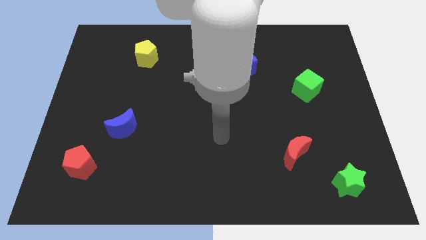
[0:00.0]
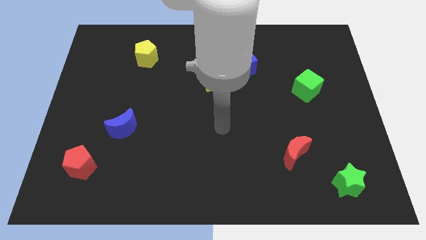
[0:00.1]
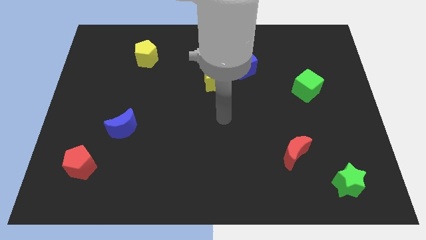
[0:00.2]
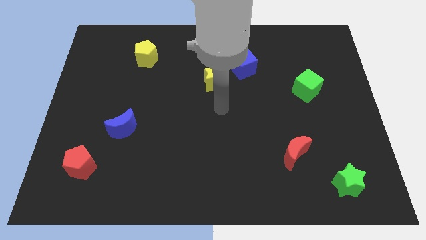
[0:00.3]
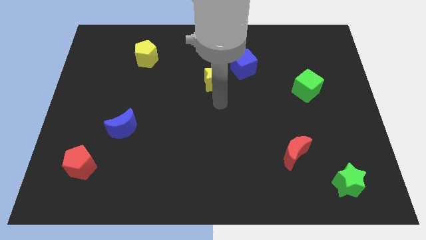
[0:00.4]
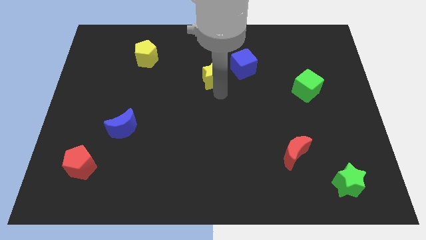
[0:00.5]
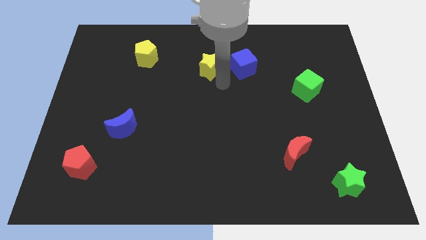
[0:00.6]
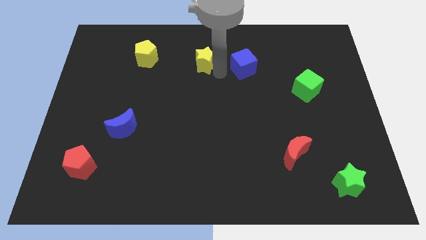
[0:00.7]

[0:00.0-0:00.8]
move the blue cube away from the yellow star

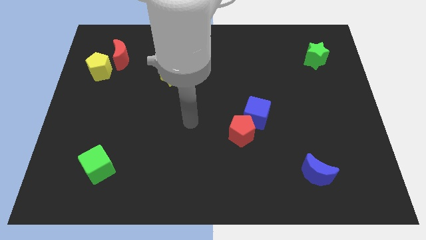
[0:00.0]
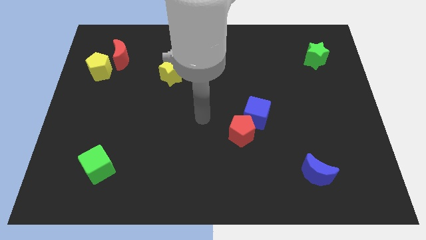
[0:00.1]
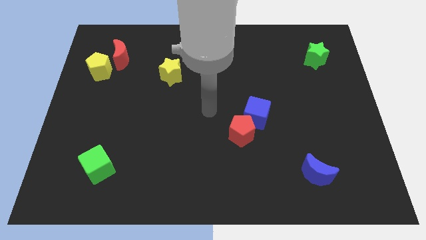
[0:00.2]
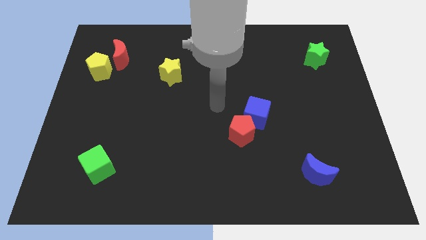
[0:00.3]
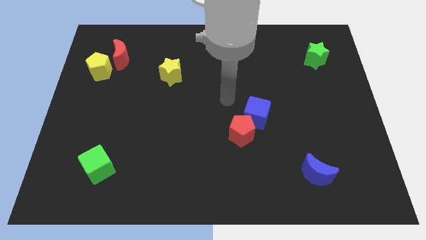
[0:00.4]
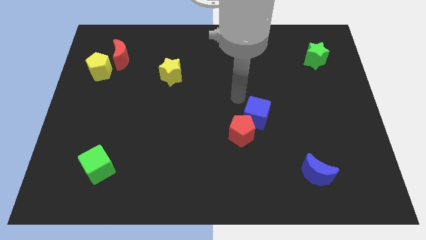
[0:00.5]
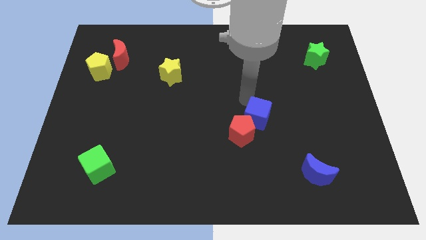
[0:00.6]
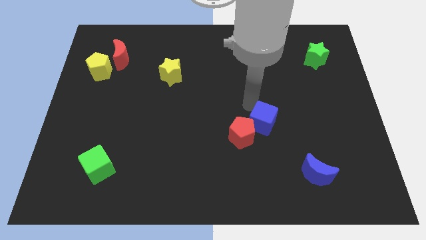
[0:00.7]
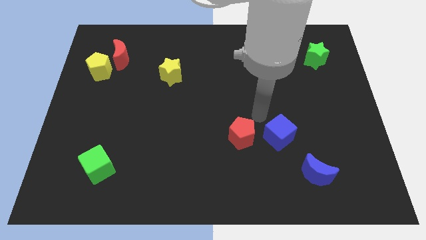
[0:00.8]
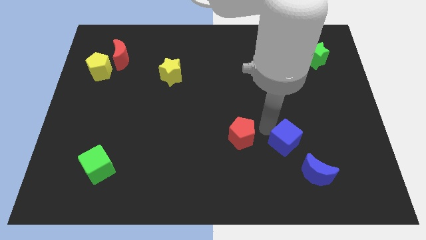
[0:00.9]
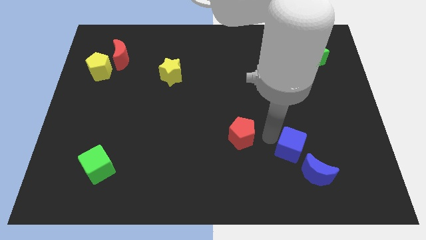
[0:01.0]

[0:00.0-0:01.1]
separate the red pentagon from the blue cube

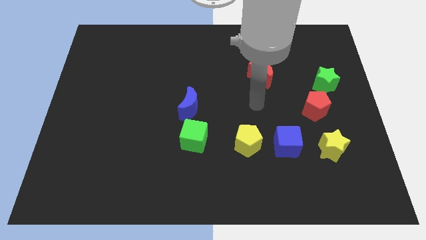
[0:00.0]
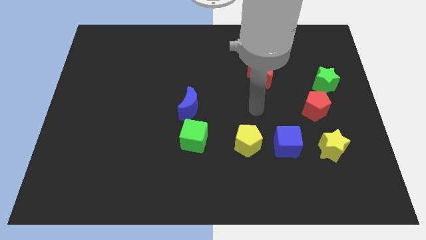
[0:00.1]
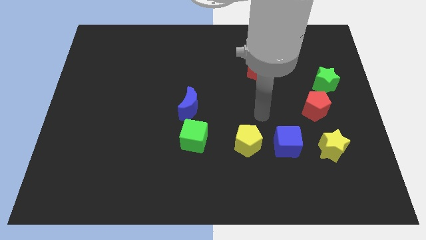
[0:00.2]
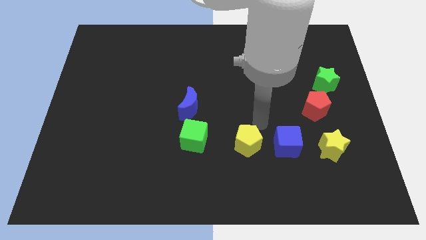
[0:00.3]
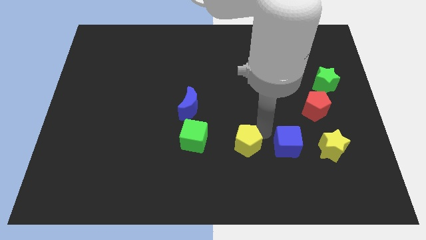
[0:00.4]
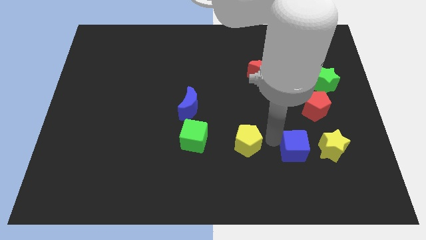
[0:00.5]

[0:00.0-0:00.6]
separate the yellow pentagon from the blue cube

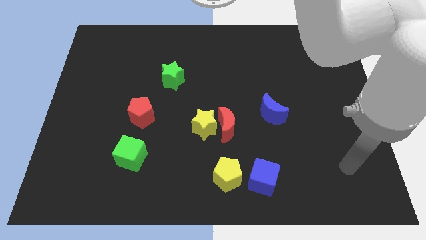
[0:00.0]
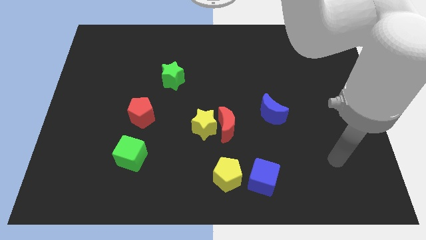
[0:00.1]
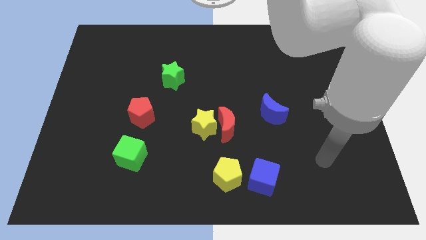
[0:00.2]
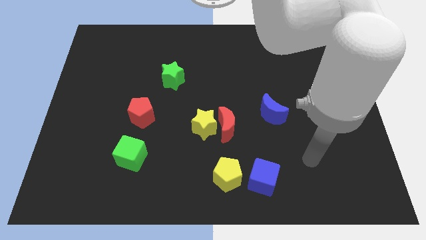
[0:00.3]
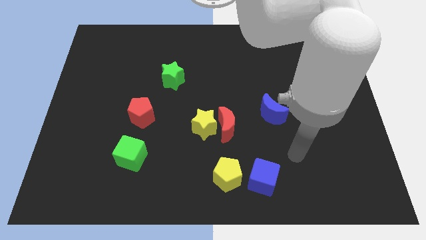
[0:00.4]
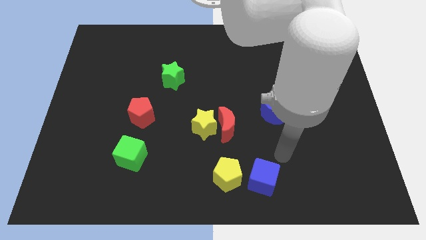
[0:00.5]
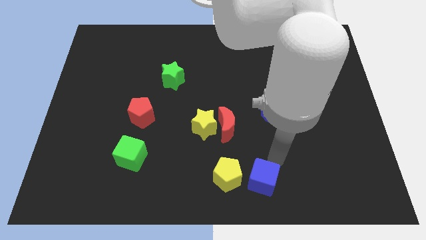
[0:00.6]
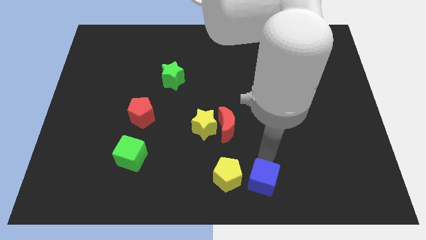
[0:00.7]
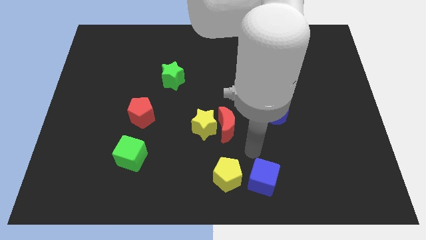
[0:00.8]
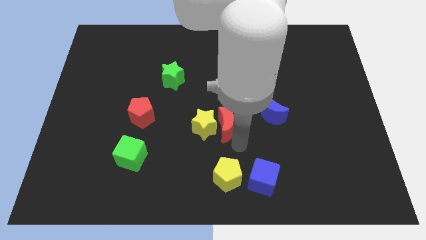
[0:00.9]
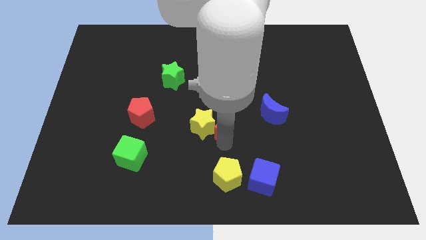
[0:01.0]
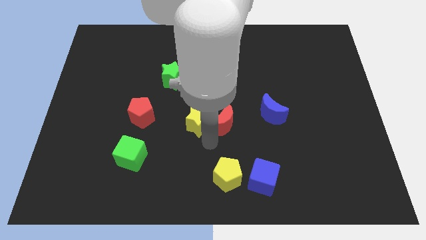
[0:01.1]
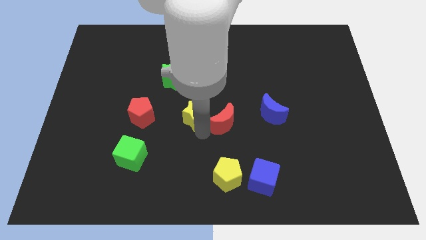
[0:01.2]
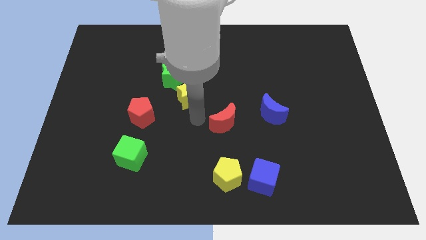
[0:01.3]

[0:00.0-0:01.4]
pull the red moon apart from the yellow star

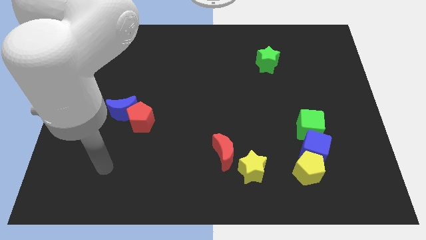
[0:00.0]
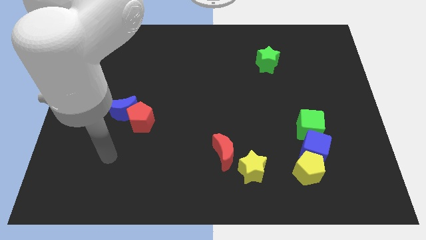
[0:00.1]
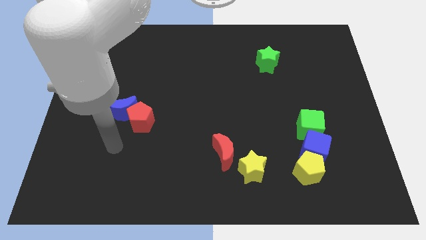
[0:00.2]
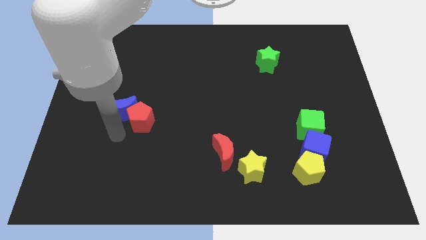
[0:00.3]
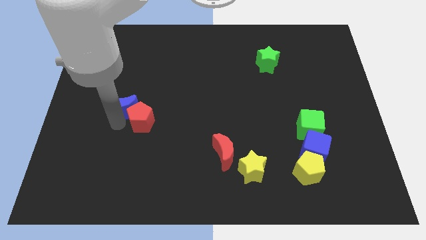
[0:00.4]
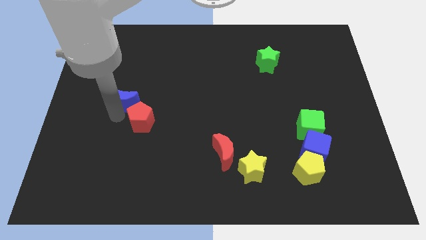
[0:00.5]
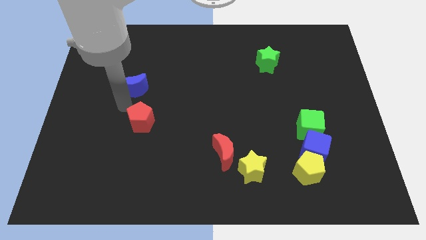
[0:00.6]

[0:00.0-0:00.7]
move the red pentagon away from the blue moon

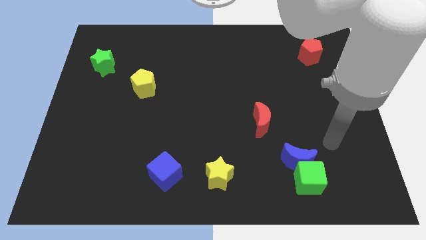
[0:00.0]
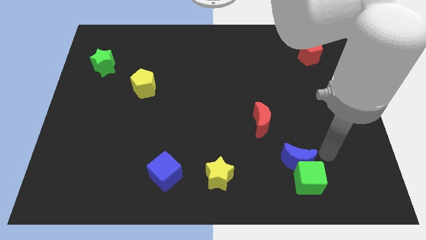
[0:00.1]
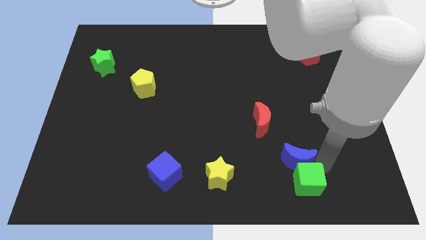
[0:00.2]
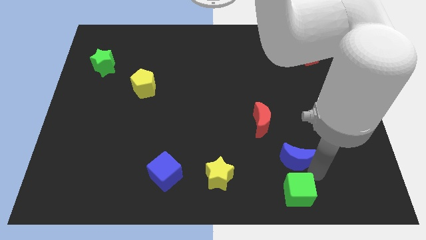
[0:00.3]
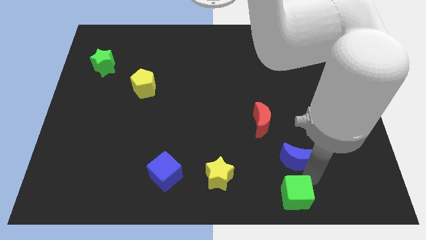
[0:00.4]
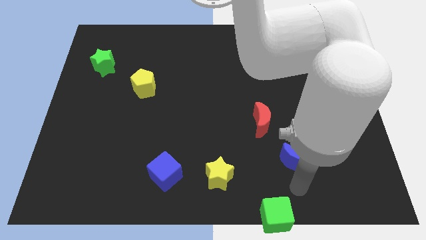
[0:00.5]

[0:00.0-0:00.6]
pull the blue moon apart from the green cube

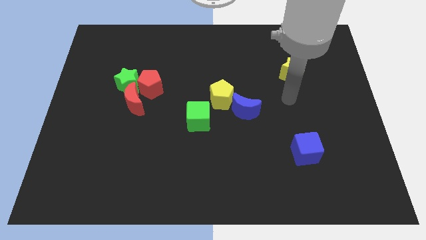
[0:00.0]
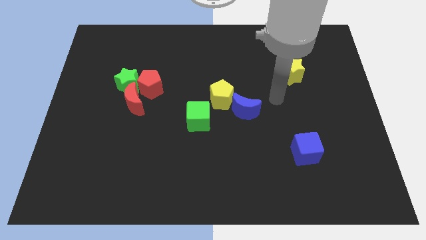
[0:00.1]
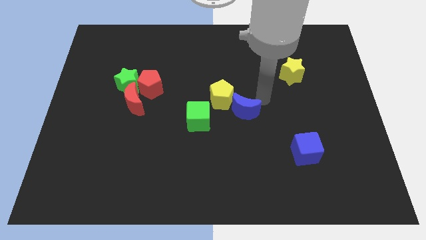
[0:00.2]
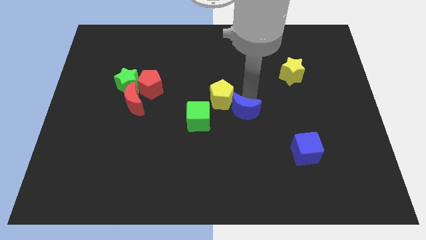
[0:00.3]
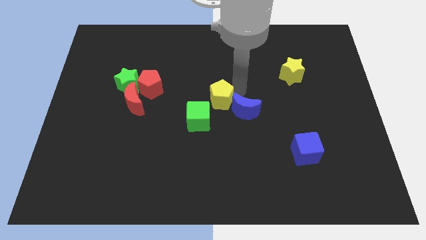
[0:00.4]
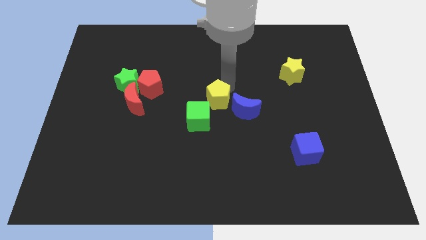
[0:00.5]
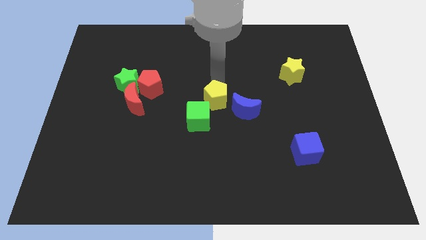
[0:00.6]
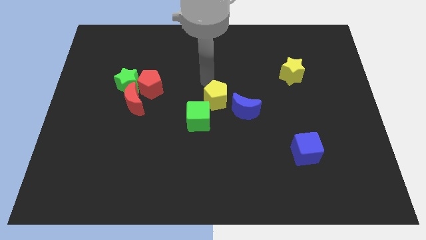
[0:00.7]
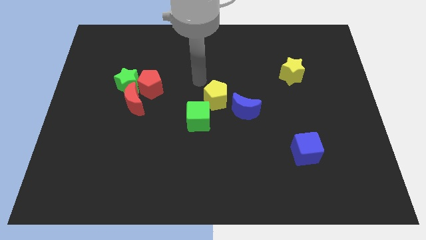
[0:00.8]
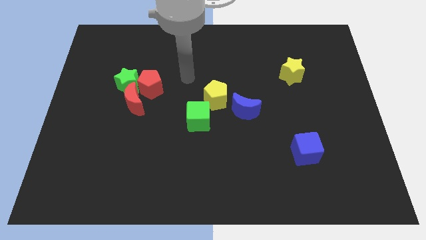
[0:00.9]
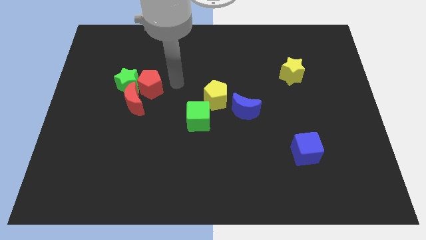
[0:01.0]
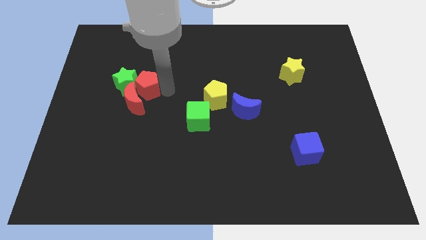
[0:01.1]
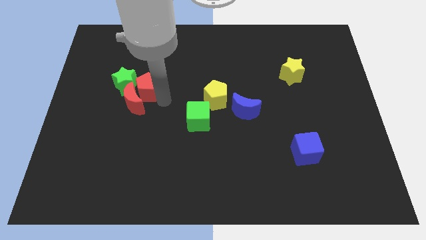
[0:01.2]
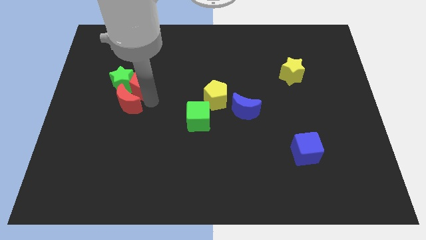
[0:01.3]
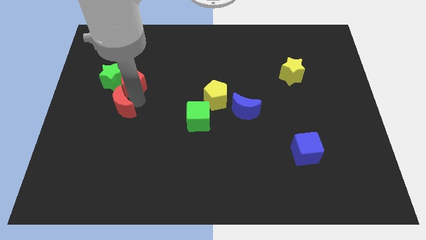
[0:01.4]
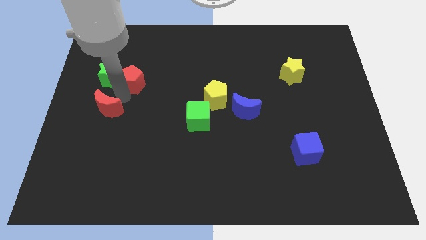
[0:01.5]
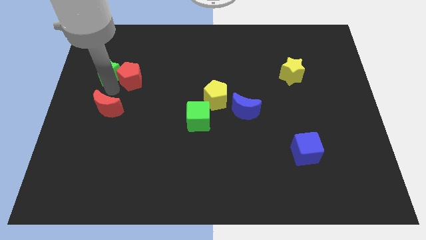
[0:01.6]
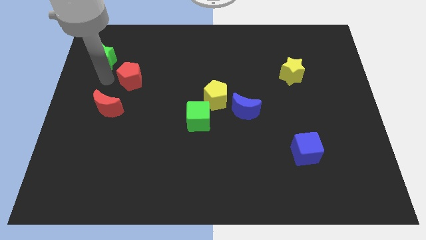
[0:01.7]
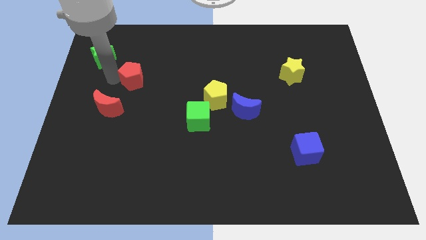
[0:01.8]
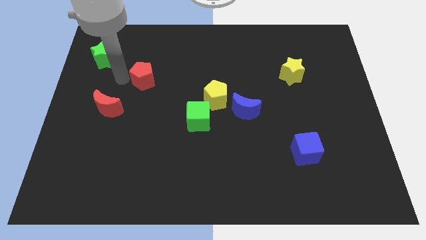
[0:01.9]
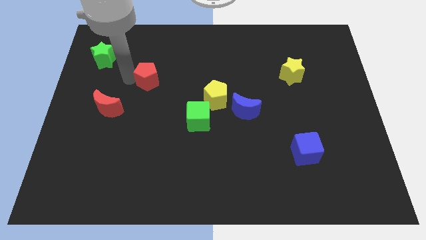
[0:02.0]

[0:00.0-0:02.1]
pull the red pentagon apart from the green star and red moon

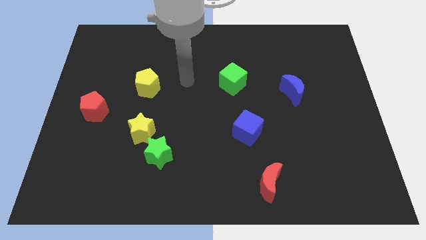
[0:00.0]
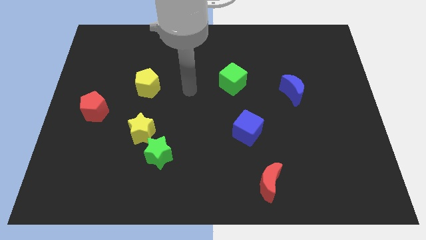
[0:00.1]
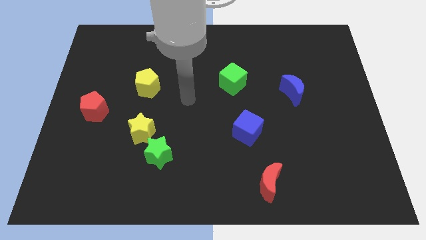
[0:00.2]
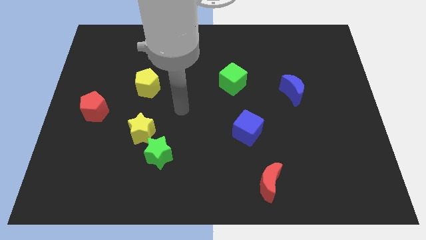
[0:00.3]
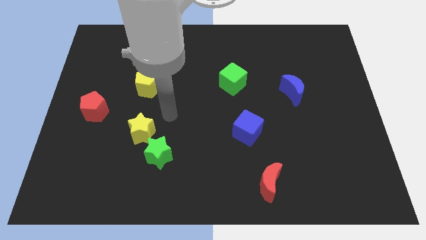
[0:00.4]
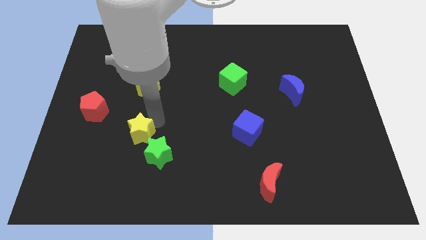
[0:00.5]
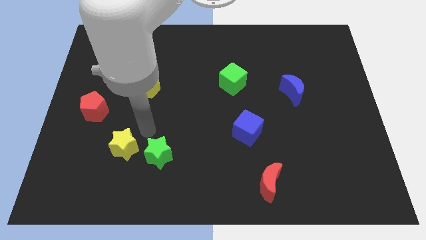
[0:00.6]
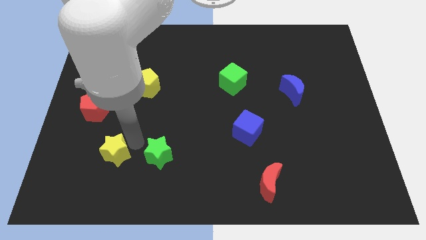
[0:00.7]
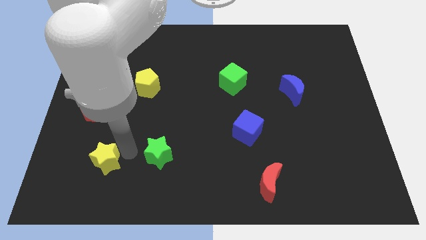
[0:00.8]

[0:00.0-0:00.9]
move the green star away from the yellow star

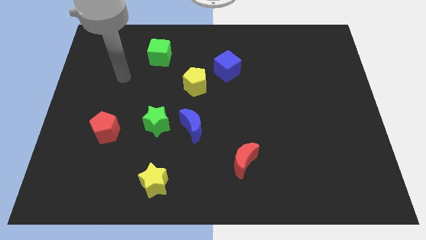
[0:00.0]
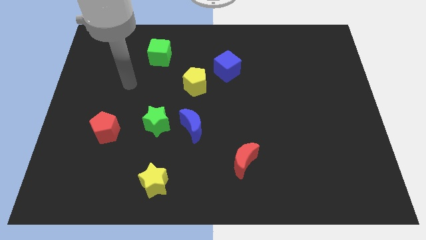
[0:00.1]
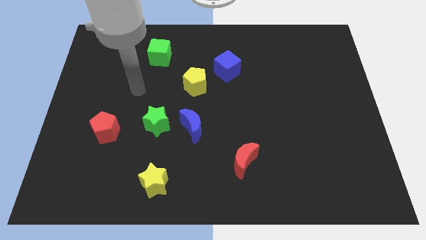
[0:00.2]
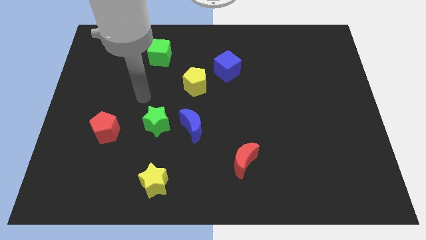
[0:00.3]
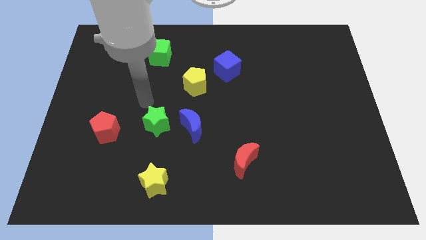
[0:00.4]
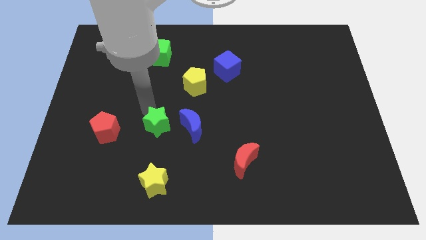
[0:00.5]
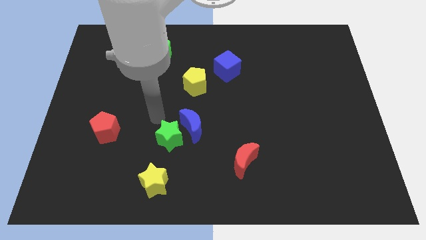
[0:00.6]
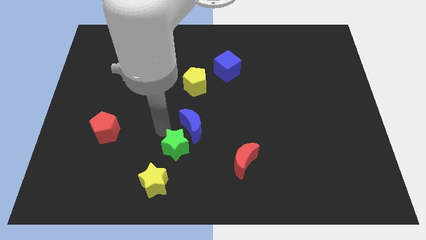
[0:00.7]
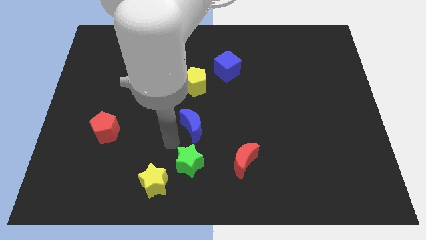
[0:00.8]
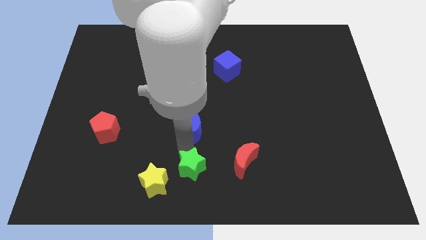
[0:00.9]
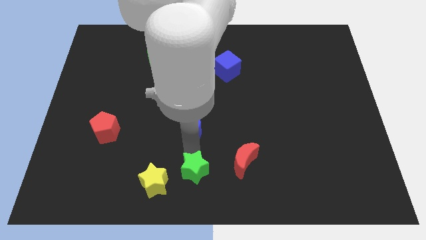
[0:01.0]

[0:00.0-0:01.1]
separate the blue moon from the green star
